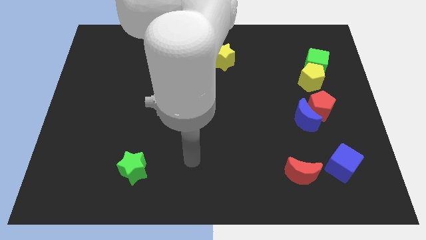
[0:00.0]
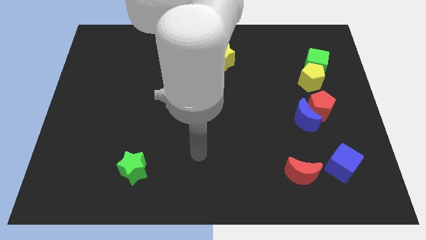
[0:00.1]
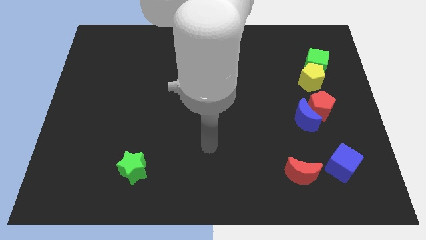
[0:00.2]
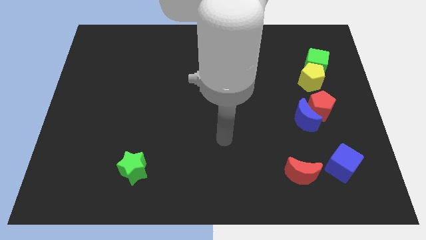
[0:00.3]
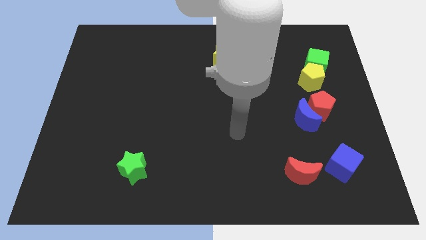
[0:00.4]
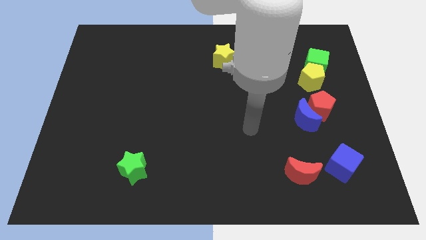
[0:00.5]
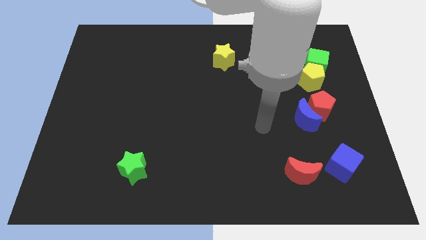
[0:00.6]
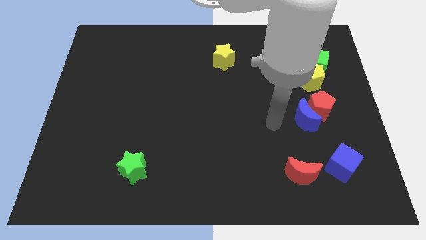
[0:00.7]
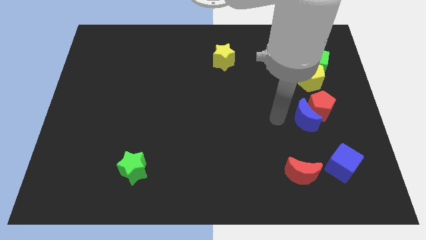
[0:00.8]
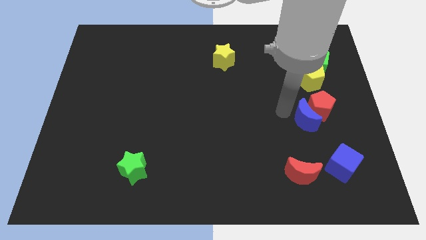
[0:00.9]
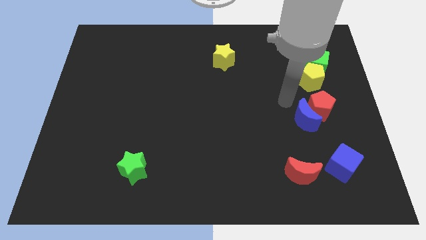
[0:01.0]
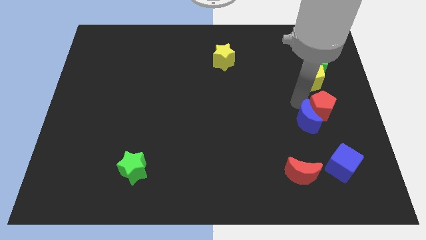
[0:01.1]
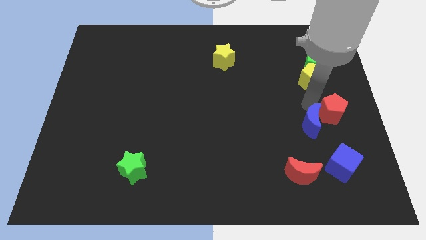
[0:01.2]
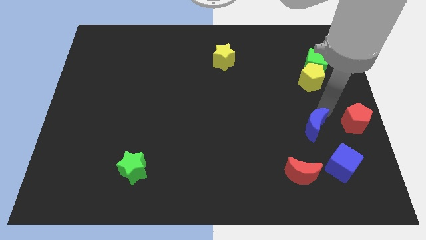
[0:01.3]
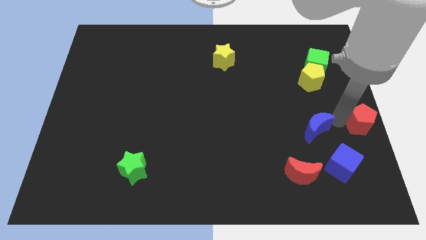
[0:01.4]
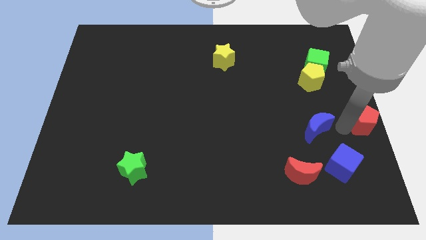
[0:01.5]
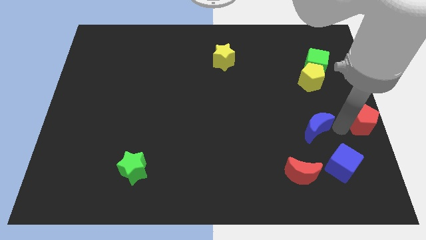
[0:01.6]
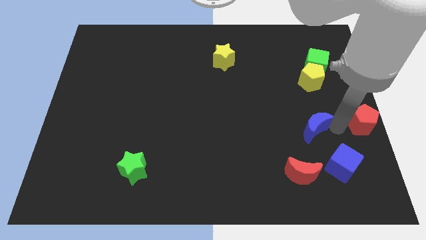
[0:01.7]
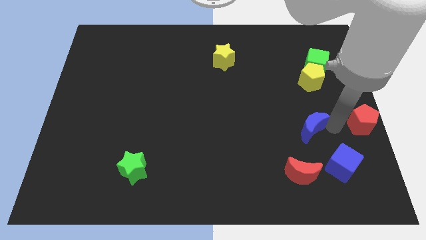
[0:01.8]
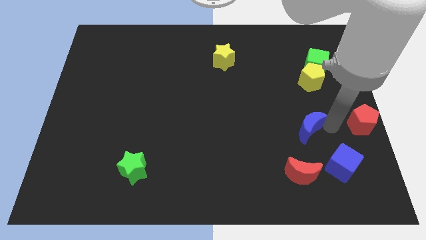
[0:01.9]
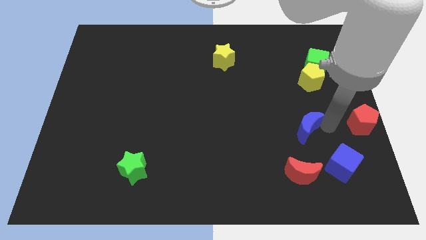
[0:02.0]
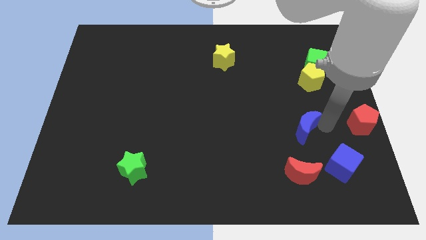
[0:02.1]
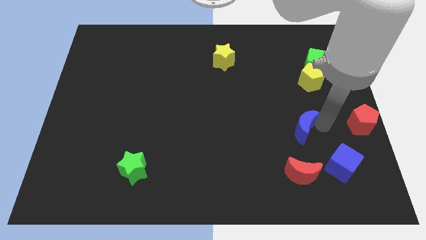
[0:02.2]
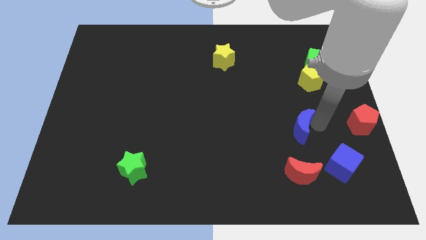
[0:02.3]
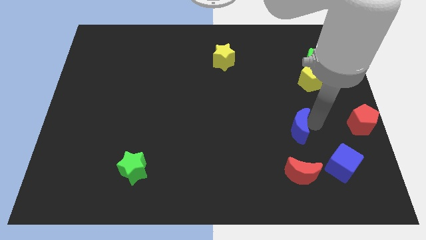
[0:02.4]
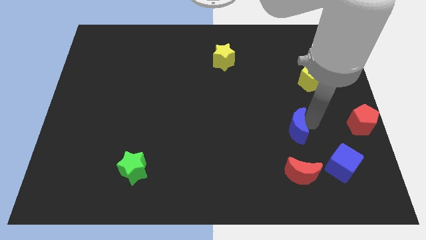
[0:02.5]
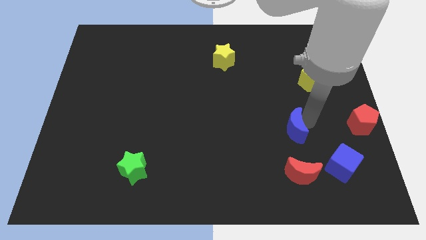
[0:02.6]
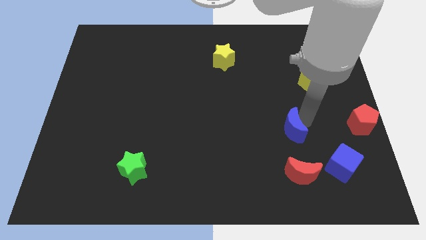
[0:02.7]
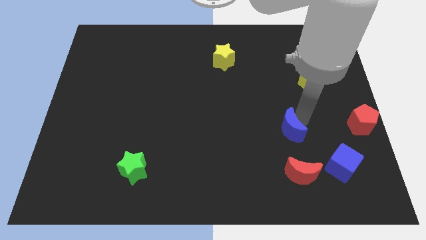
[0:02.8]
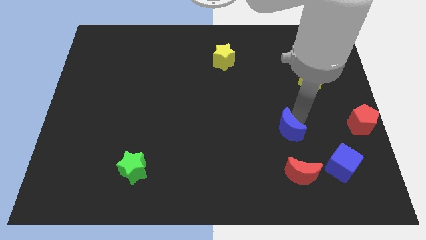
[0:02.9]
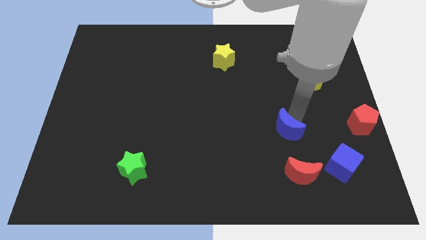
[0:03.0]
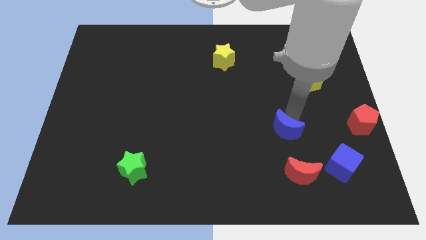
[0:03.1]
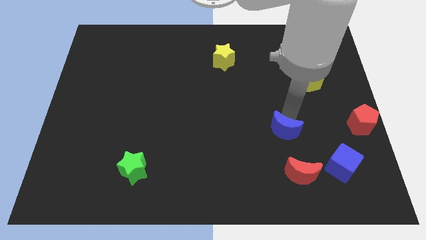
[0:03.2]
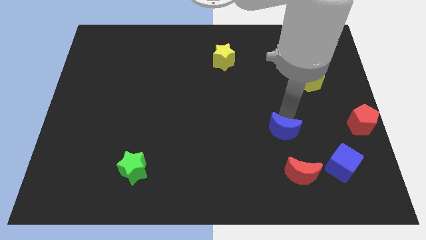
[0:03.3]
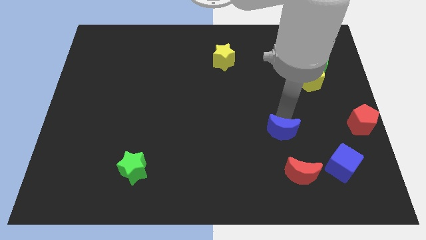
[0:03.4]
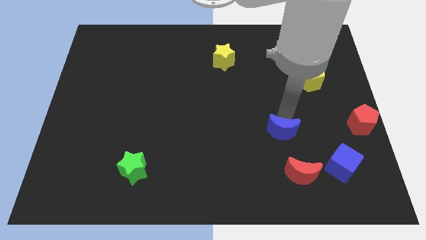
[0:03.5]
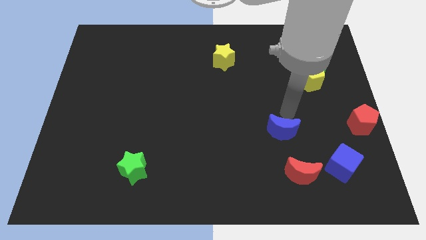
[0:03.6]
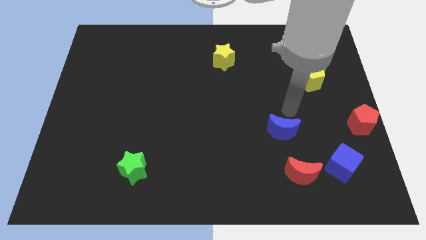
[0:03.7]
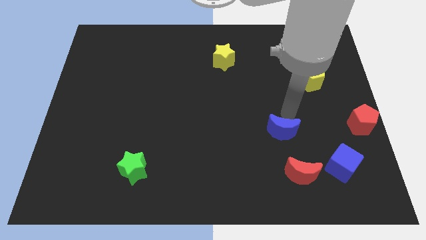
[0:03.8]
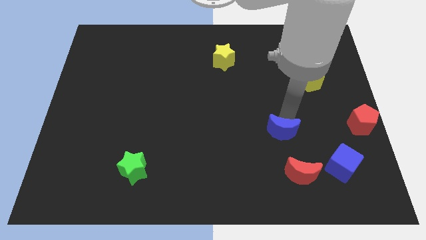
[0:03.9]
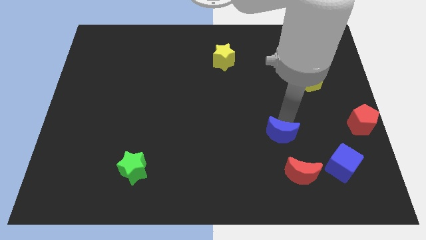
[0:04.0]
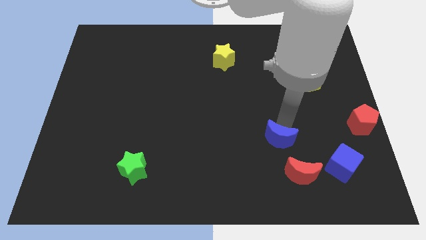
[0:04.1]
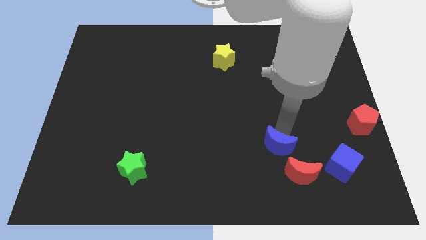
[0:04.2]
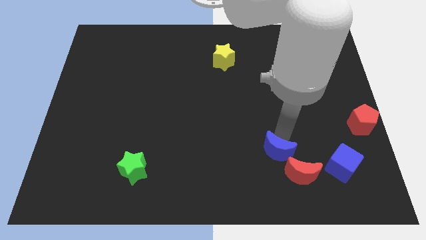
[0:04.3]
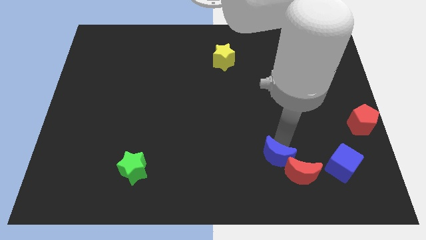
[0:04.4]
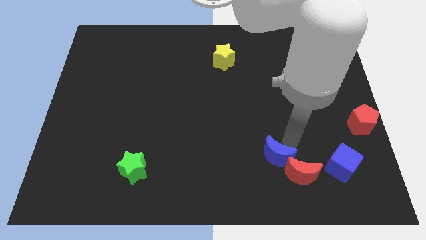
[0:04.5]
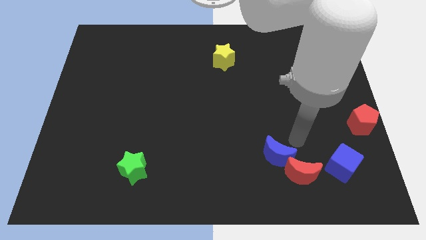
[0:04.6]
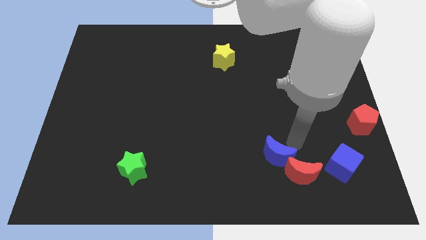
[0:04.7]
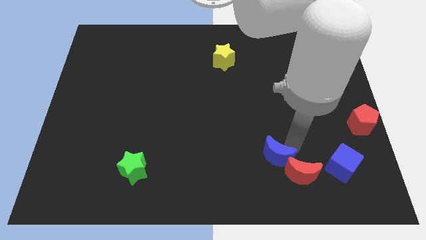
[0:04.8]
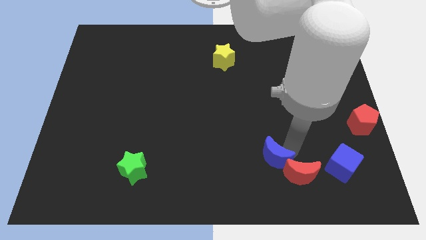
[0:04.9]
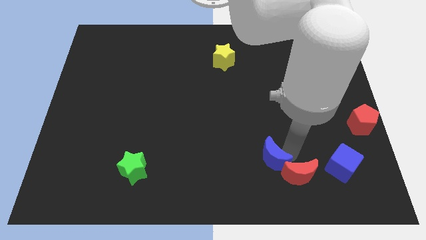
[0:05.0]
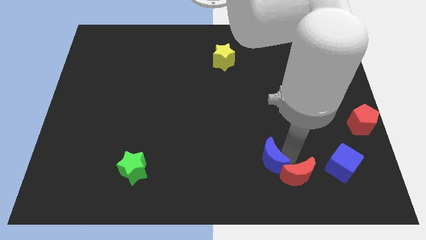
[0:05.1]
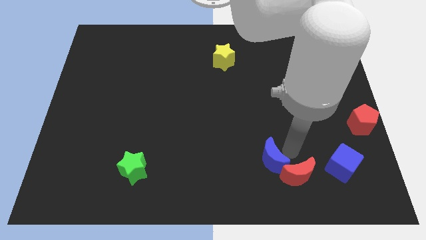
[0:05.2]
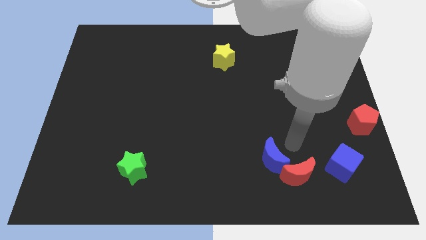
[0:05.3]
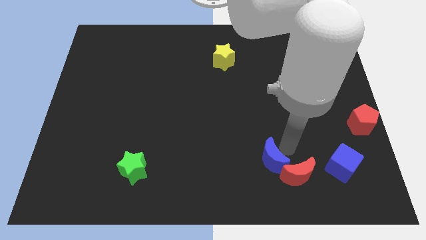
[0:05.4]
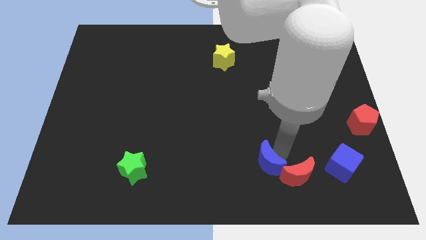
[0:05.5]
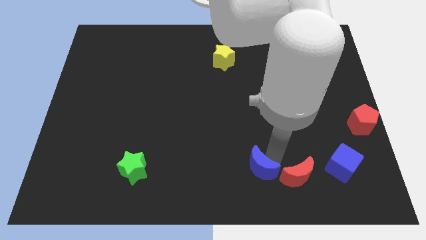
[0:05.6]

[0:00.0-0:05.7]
slide the blue moon to the bottom side

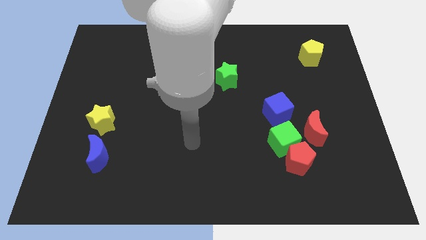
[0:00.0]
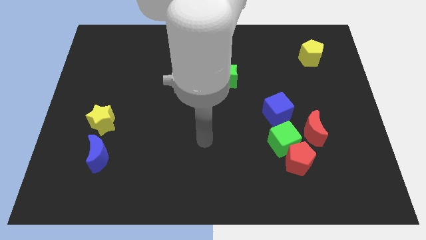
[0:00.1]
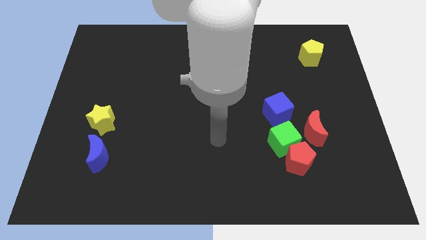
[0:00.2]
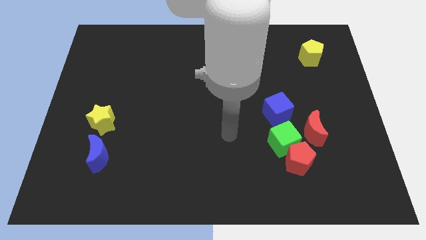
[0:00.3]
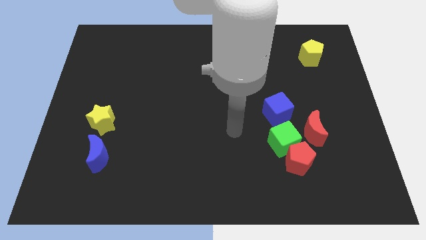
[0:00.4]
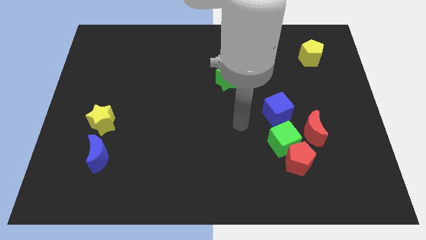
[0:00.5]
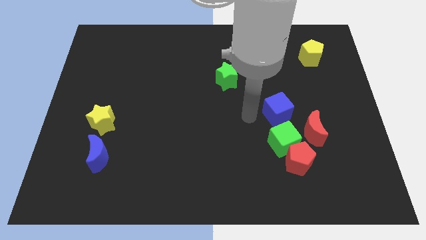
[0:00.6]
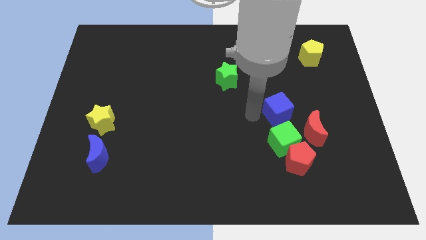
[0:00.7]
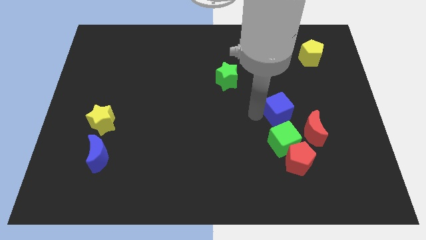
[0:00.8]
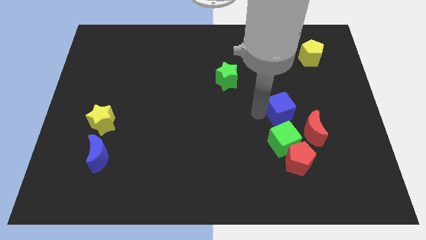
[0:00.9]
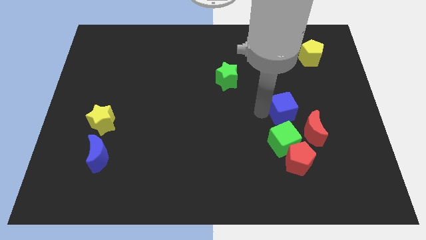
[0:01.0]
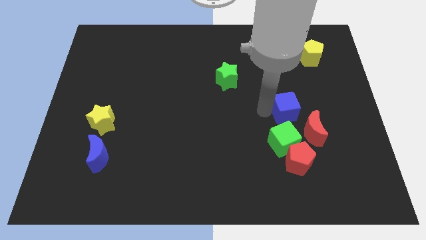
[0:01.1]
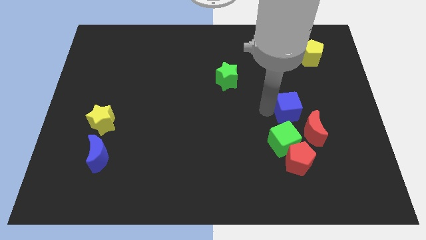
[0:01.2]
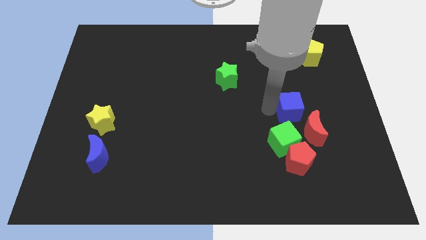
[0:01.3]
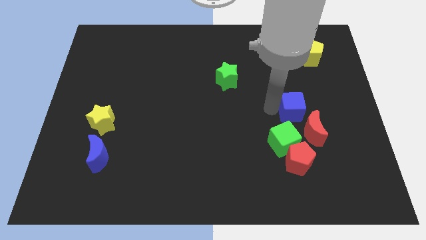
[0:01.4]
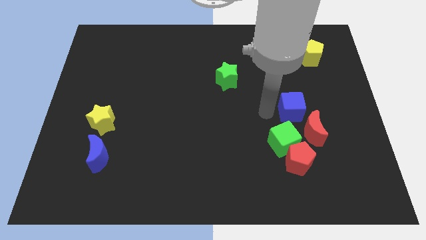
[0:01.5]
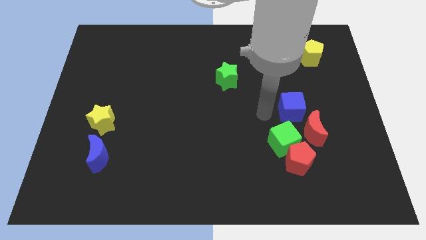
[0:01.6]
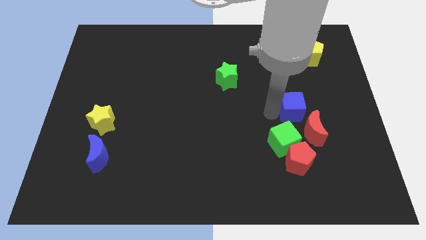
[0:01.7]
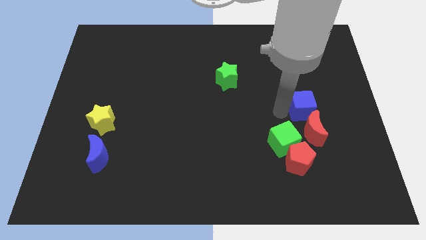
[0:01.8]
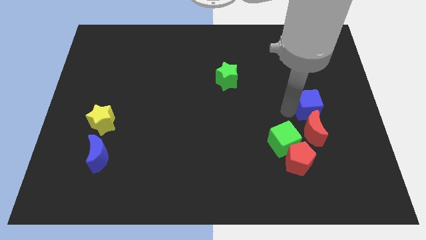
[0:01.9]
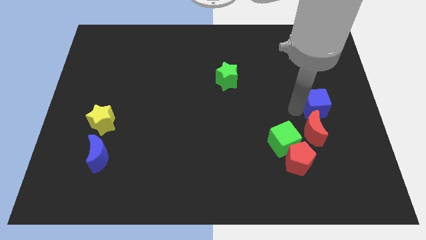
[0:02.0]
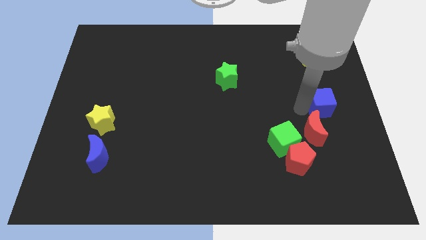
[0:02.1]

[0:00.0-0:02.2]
slide the blue cube to the right side of the board
